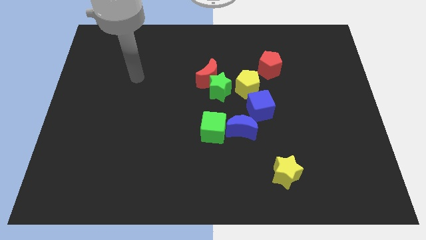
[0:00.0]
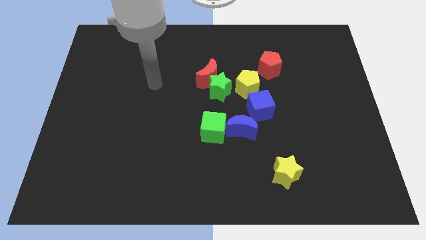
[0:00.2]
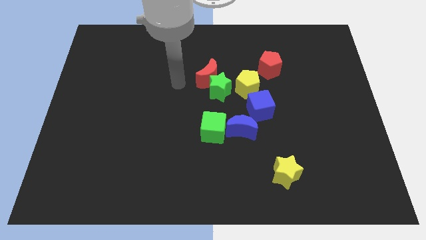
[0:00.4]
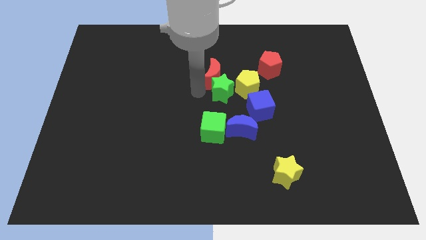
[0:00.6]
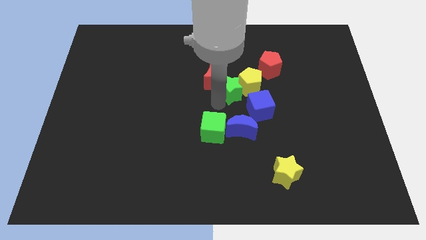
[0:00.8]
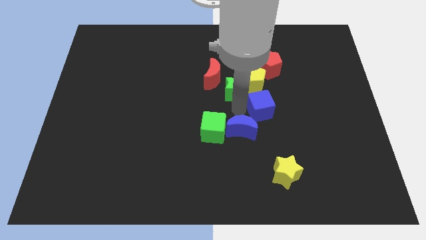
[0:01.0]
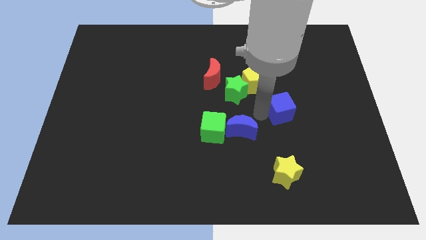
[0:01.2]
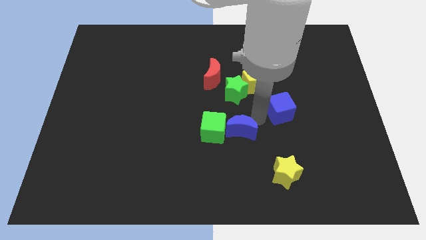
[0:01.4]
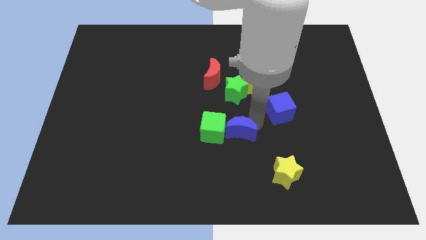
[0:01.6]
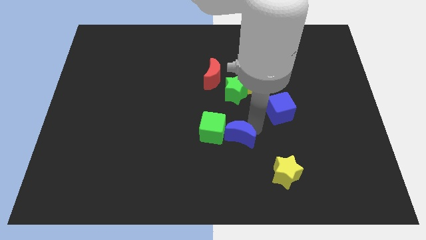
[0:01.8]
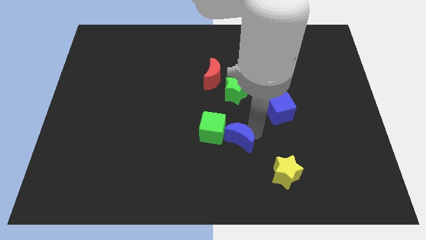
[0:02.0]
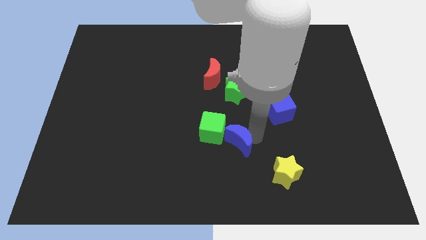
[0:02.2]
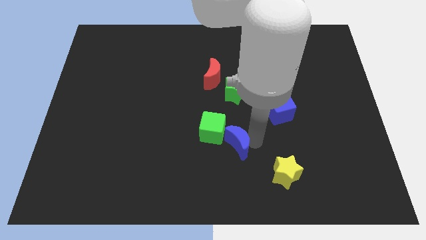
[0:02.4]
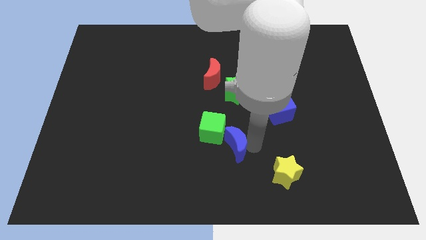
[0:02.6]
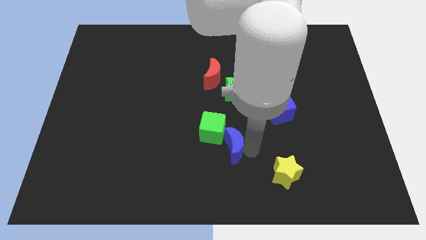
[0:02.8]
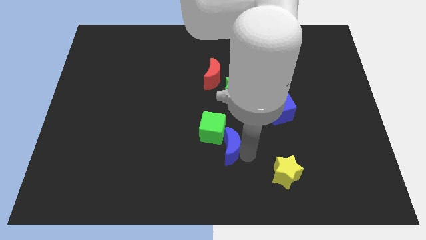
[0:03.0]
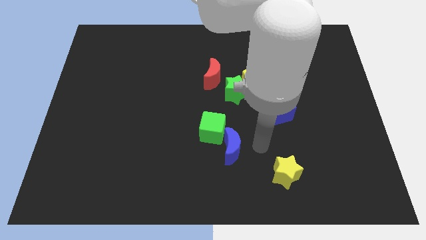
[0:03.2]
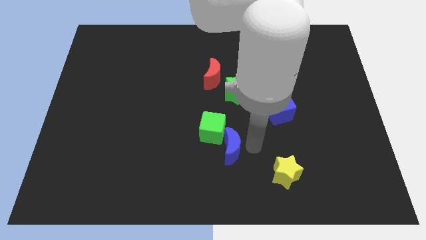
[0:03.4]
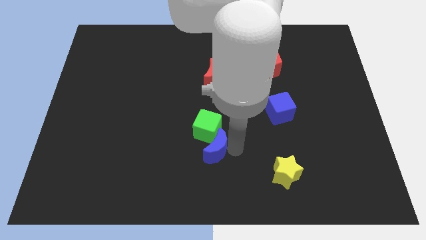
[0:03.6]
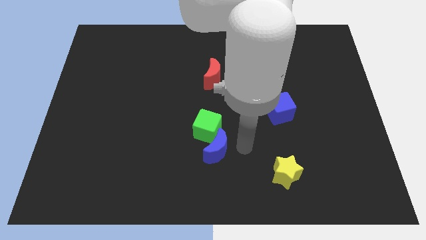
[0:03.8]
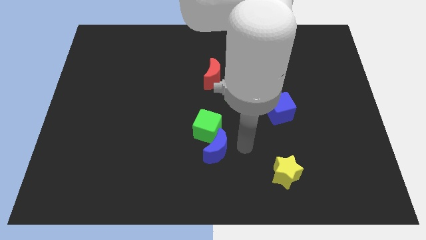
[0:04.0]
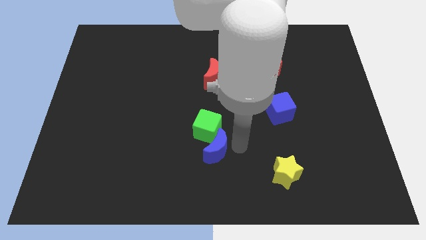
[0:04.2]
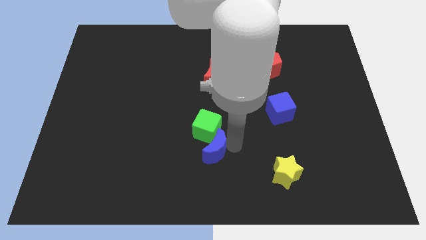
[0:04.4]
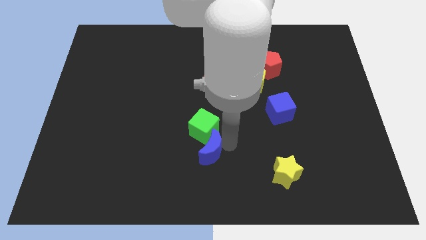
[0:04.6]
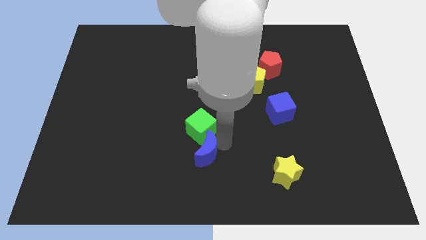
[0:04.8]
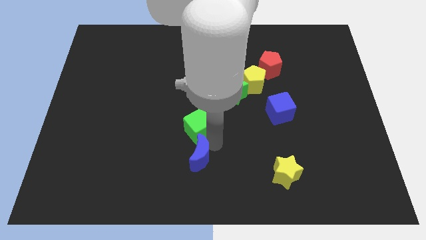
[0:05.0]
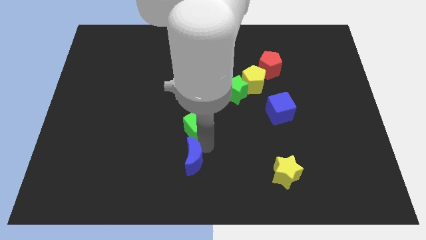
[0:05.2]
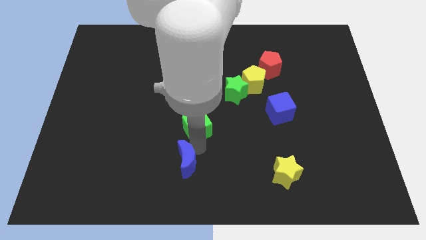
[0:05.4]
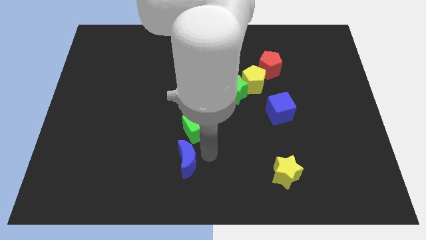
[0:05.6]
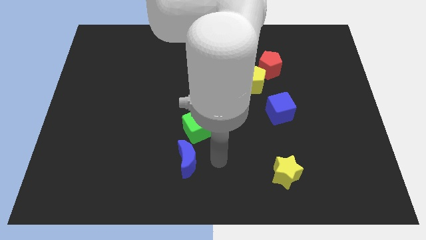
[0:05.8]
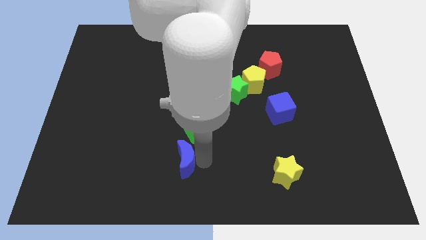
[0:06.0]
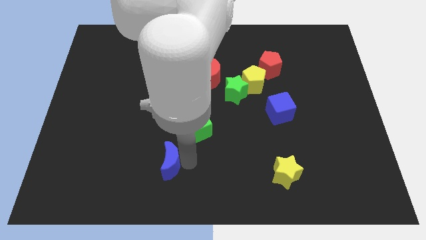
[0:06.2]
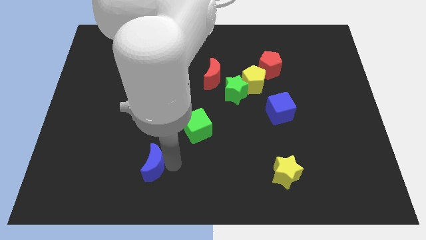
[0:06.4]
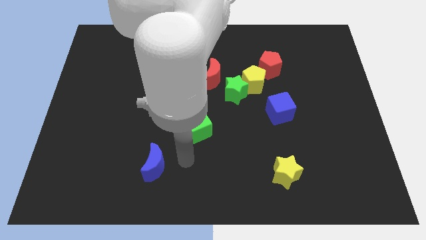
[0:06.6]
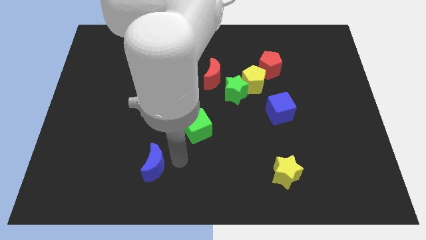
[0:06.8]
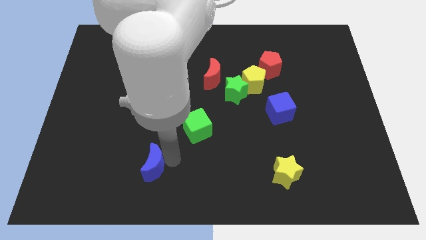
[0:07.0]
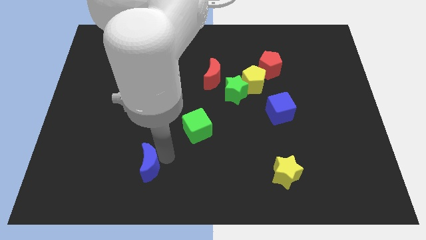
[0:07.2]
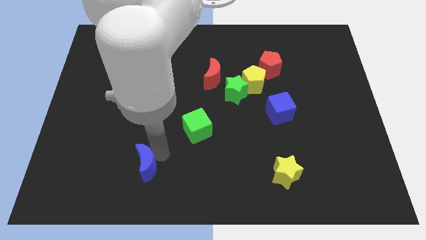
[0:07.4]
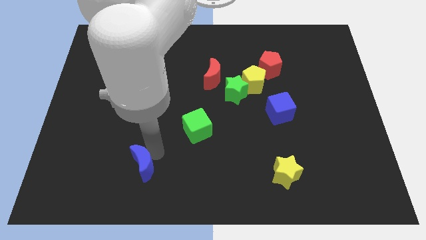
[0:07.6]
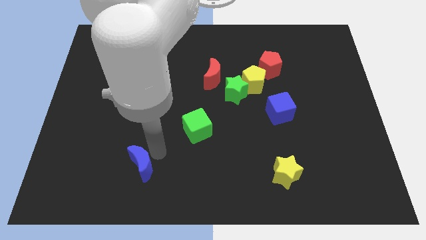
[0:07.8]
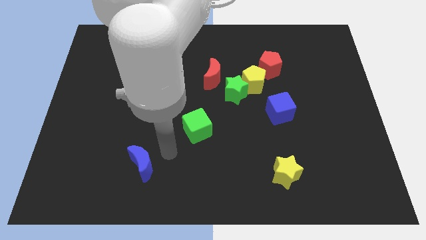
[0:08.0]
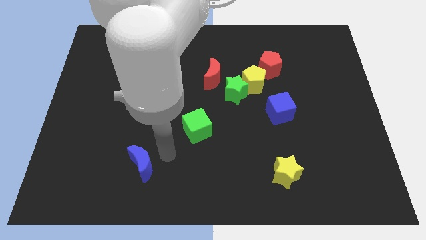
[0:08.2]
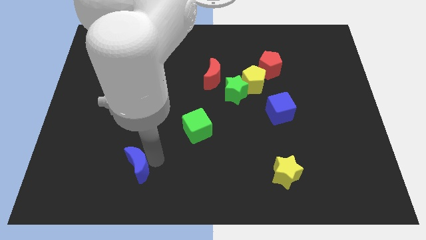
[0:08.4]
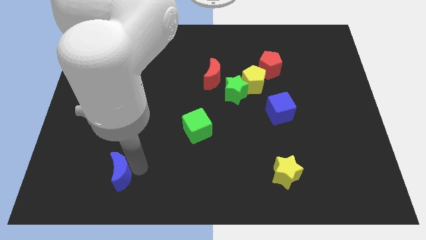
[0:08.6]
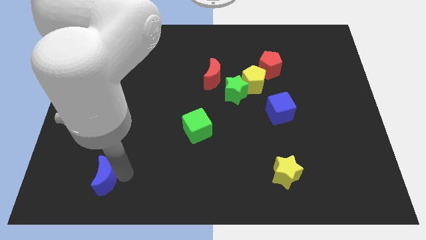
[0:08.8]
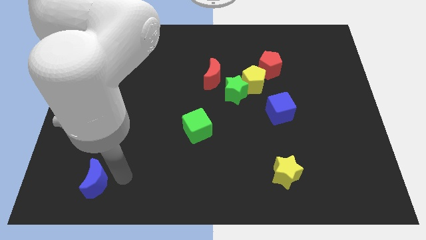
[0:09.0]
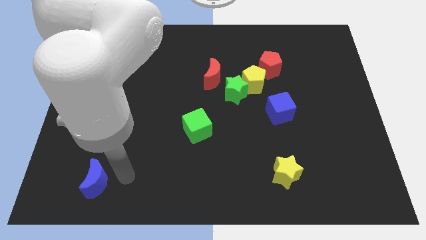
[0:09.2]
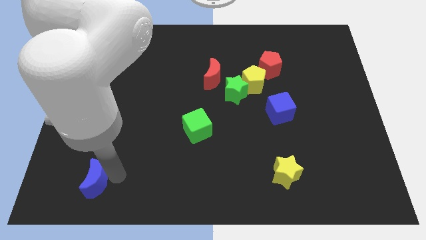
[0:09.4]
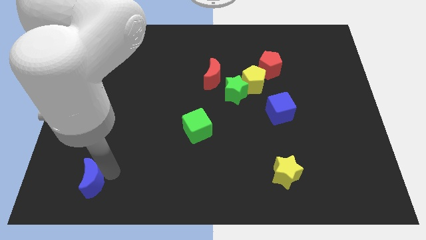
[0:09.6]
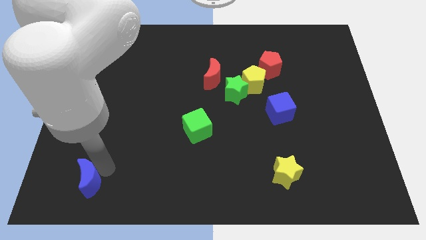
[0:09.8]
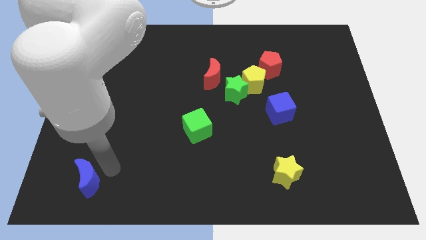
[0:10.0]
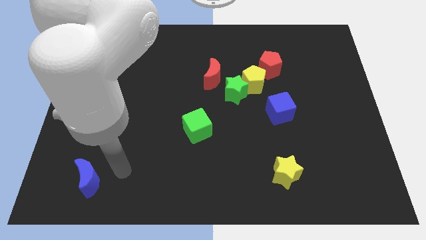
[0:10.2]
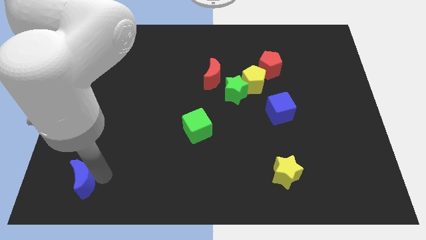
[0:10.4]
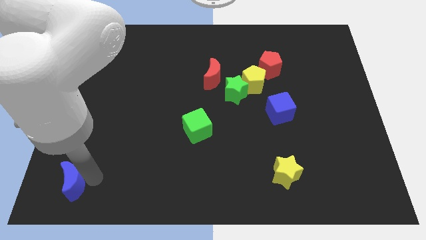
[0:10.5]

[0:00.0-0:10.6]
push the blue moon to the bottom left corner

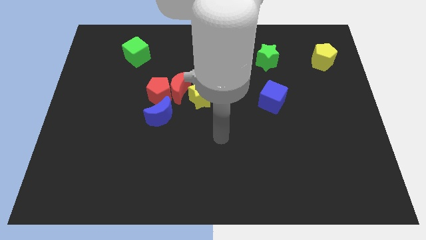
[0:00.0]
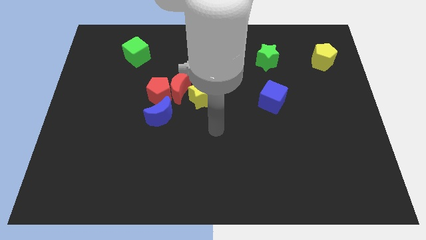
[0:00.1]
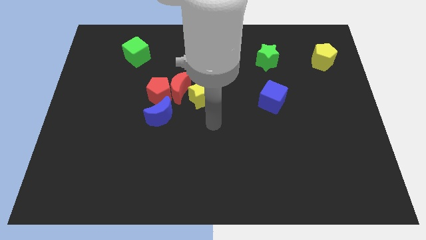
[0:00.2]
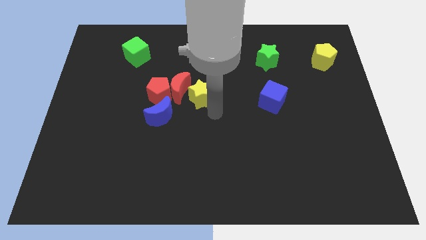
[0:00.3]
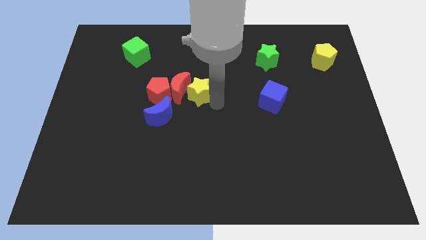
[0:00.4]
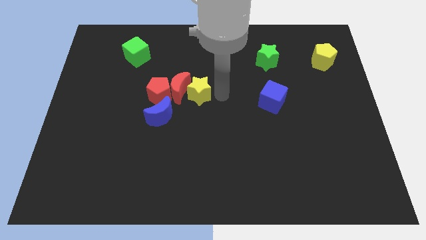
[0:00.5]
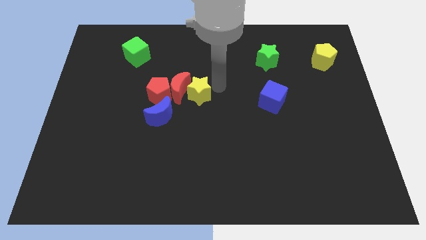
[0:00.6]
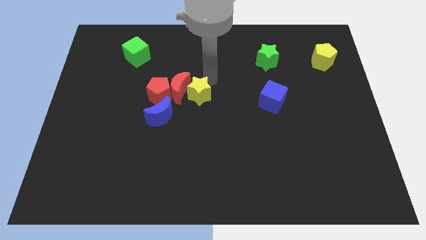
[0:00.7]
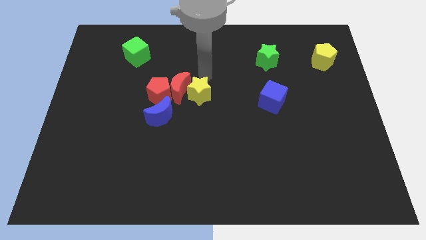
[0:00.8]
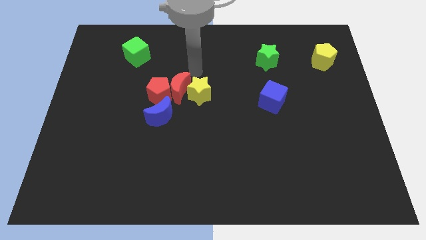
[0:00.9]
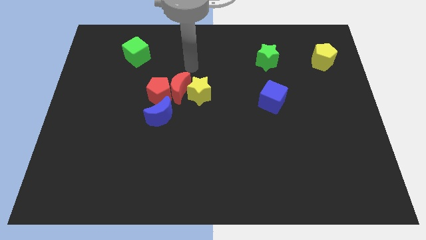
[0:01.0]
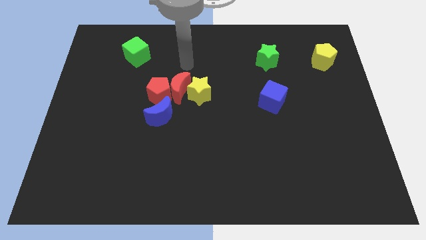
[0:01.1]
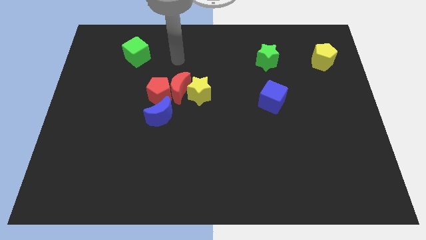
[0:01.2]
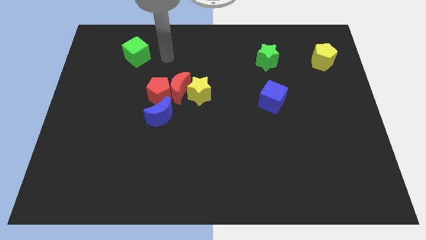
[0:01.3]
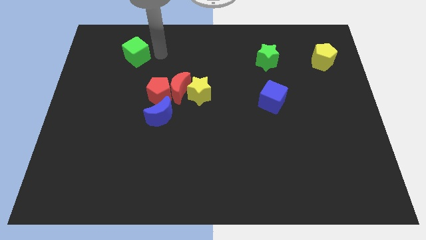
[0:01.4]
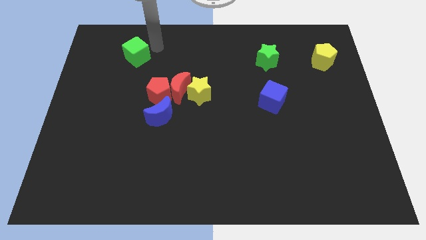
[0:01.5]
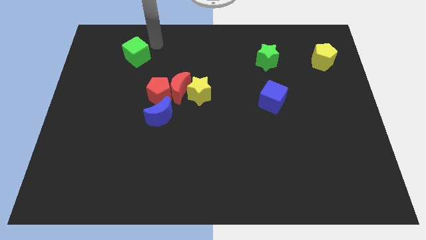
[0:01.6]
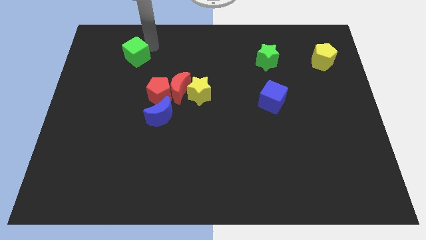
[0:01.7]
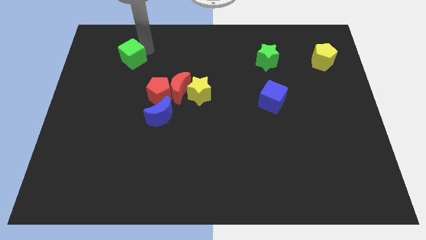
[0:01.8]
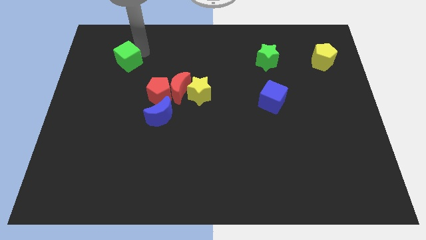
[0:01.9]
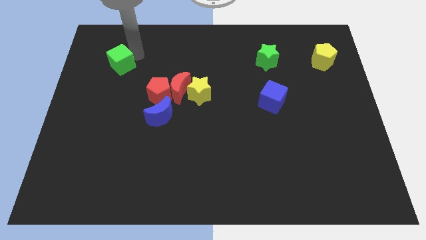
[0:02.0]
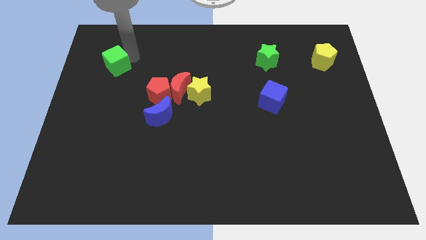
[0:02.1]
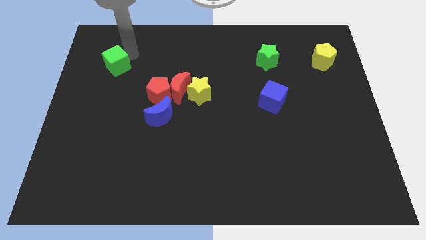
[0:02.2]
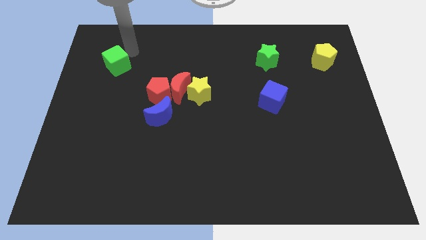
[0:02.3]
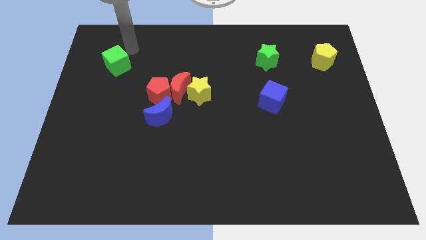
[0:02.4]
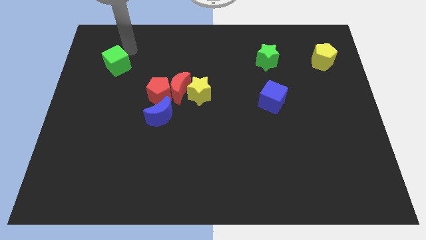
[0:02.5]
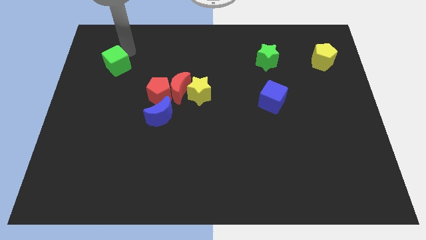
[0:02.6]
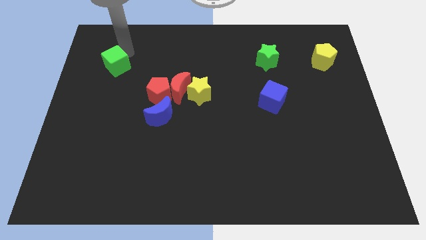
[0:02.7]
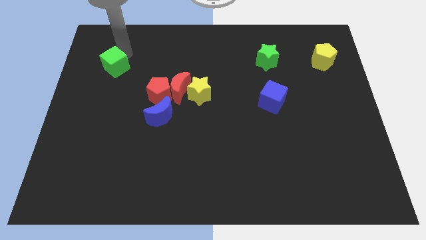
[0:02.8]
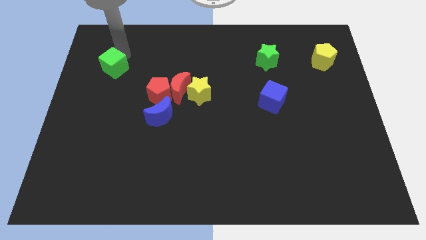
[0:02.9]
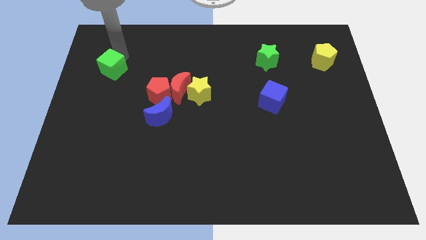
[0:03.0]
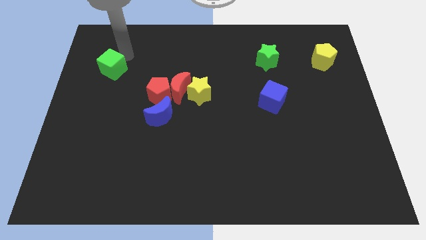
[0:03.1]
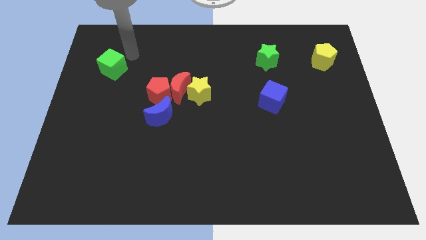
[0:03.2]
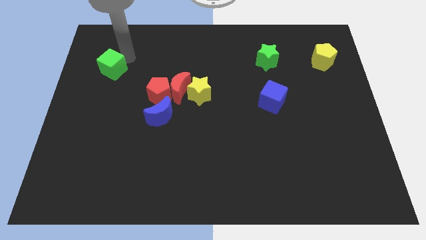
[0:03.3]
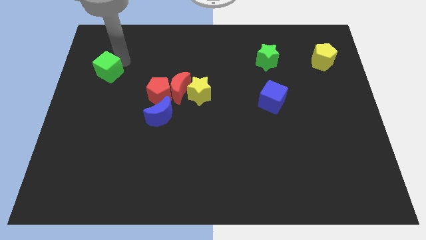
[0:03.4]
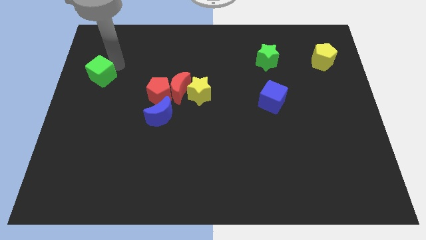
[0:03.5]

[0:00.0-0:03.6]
put the green cube to the center left
